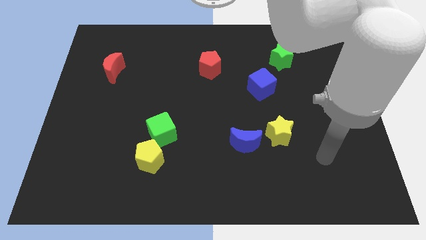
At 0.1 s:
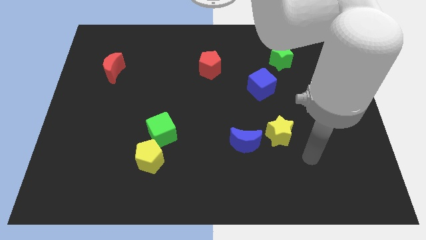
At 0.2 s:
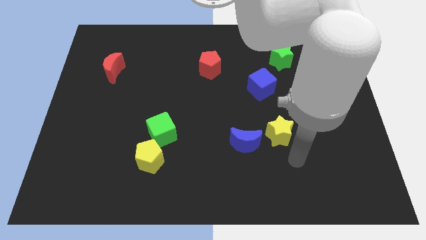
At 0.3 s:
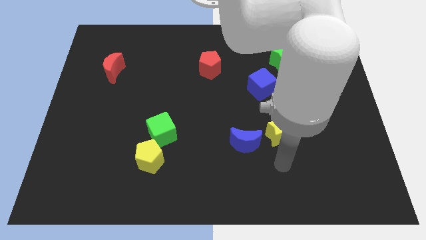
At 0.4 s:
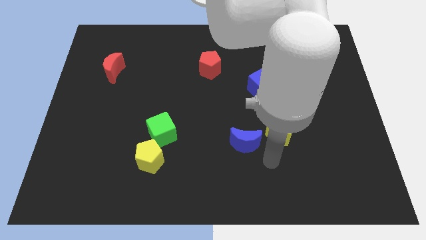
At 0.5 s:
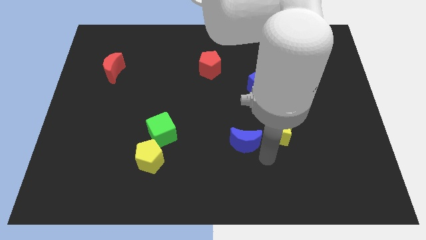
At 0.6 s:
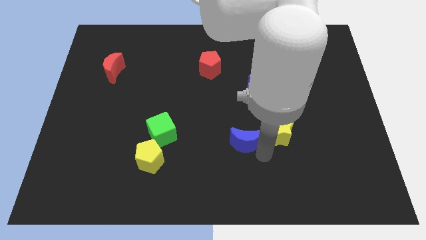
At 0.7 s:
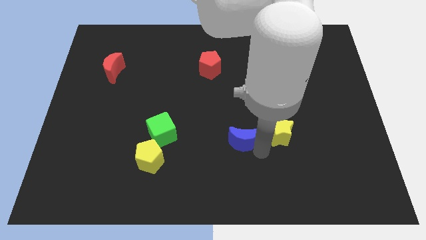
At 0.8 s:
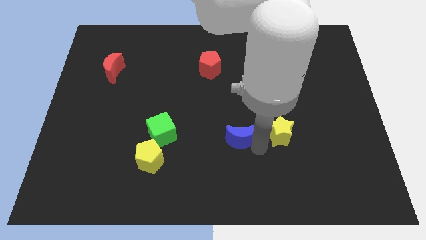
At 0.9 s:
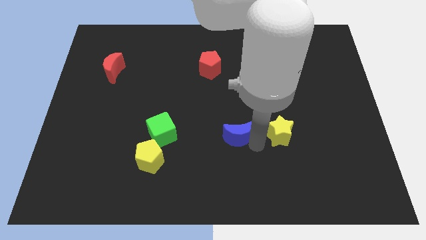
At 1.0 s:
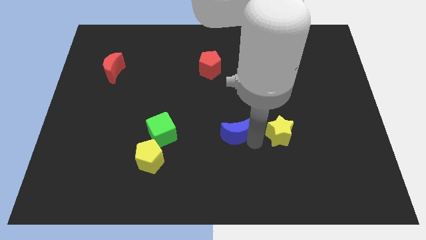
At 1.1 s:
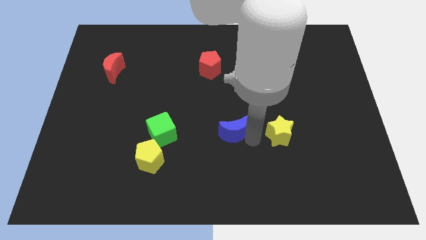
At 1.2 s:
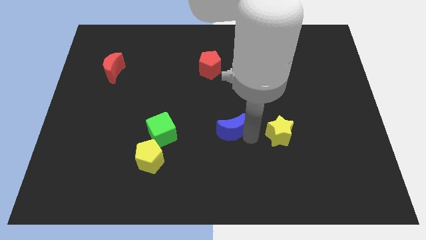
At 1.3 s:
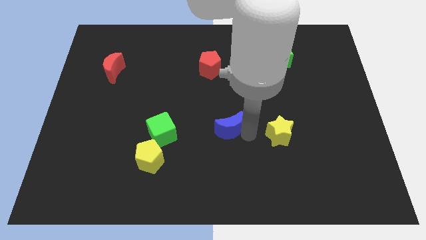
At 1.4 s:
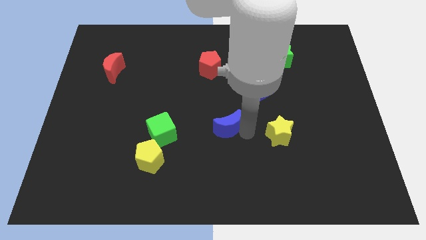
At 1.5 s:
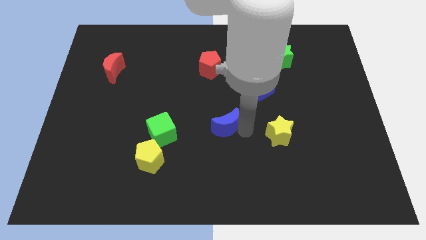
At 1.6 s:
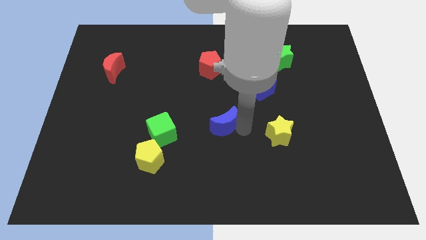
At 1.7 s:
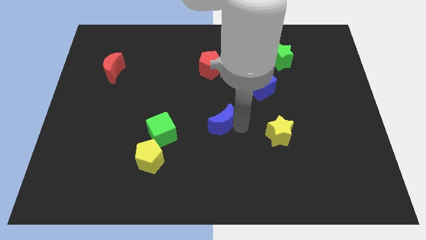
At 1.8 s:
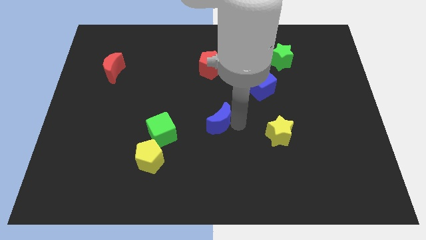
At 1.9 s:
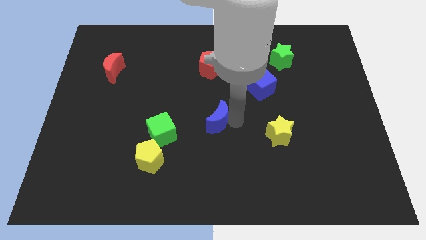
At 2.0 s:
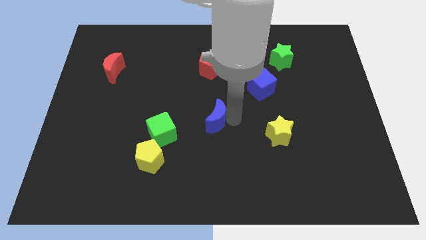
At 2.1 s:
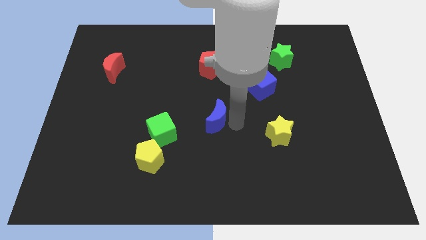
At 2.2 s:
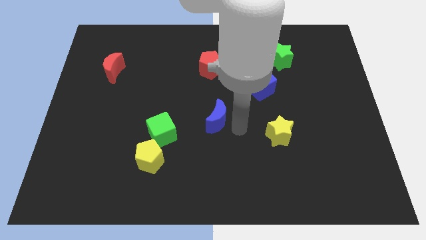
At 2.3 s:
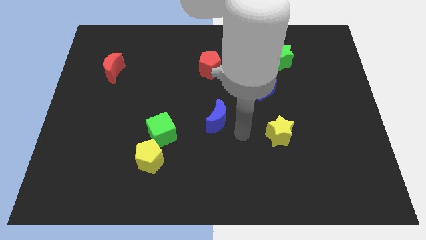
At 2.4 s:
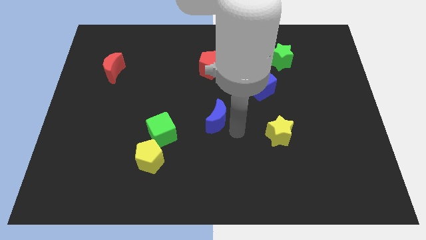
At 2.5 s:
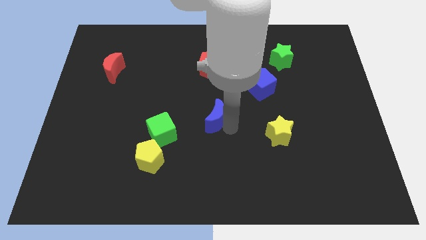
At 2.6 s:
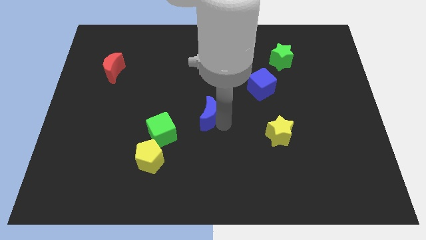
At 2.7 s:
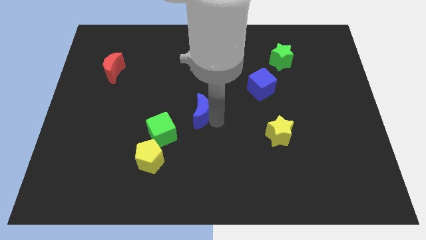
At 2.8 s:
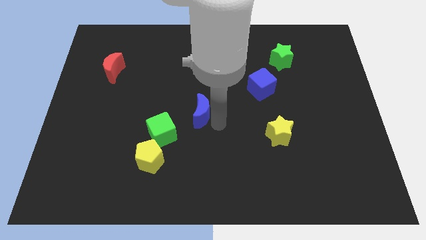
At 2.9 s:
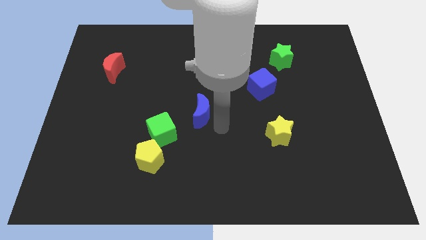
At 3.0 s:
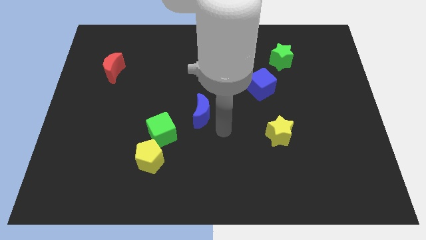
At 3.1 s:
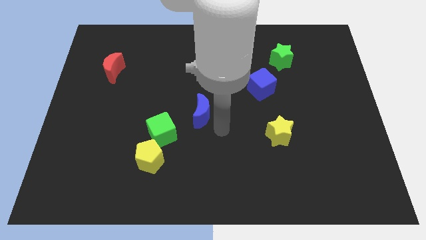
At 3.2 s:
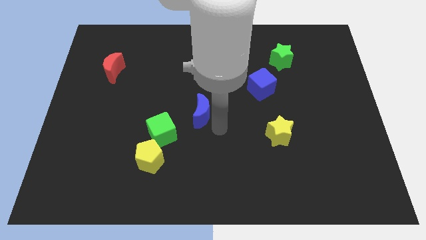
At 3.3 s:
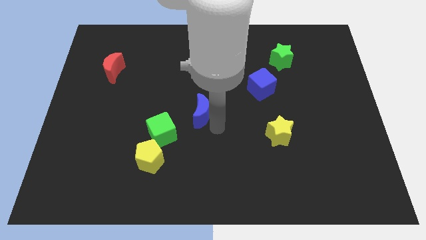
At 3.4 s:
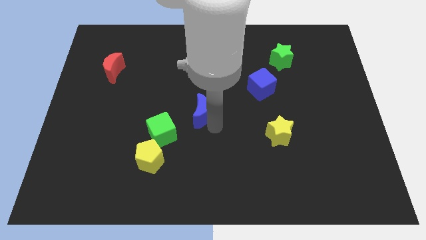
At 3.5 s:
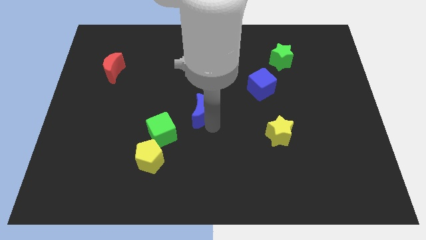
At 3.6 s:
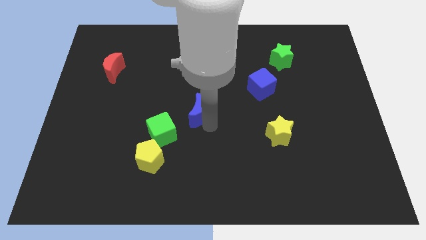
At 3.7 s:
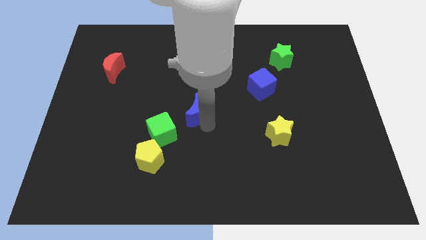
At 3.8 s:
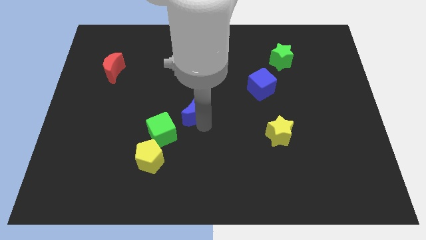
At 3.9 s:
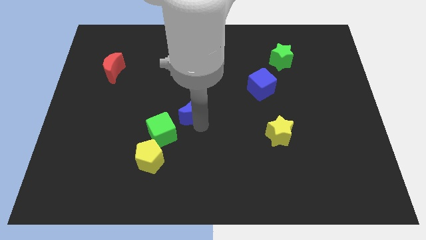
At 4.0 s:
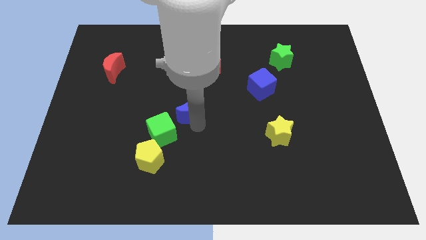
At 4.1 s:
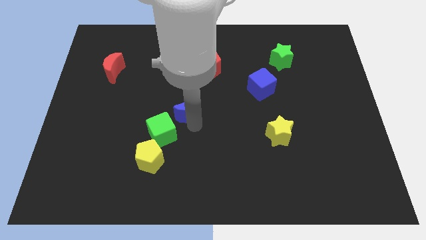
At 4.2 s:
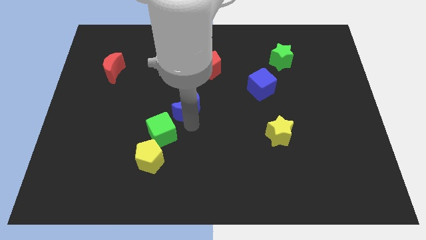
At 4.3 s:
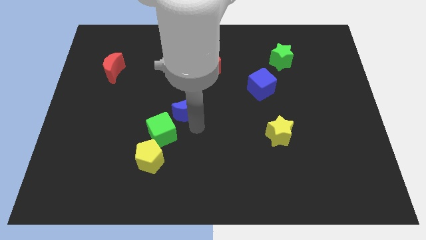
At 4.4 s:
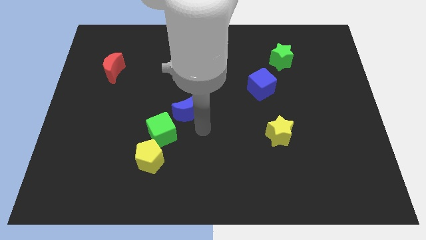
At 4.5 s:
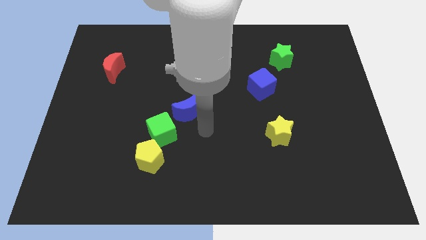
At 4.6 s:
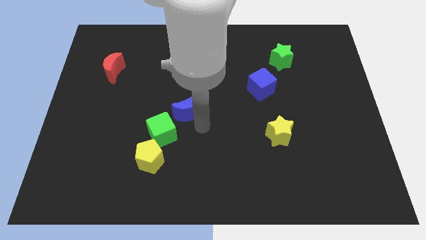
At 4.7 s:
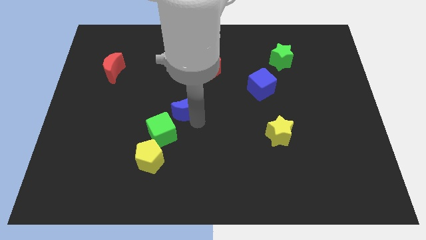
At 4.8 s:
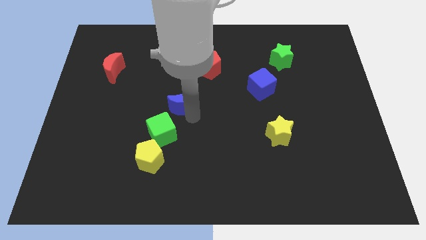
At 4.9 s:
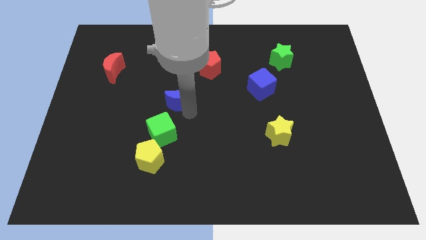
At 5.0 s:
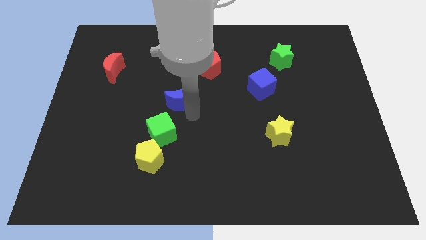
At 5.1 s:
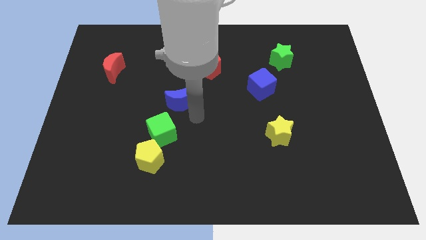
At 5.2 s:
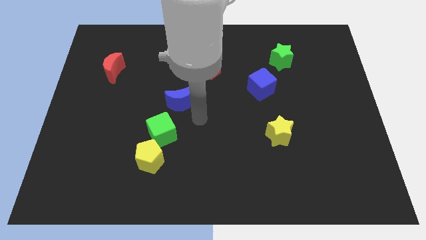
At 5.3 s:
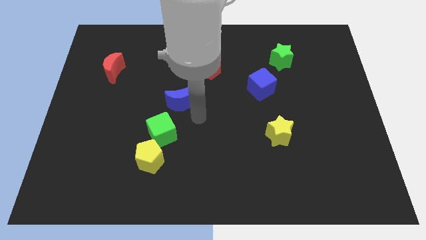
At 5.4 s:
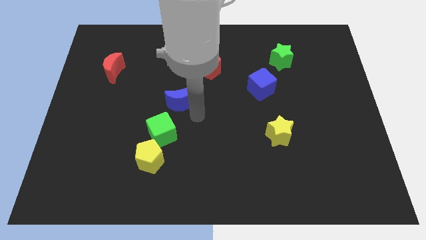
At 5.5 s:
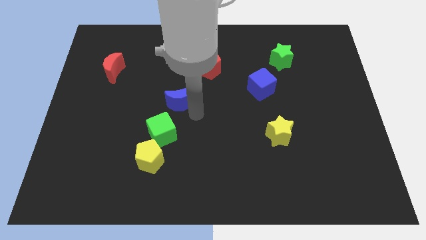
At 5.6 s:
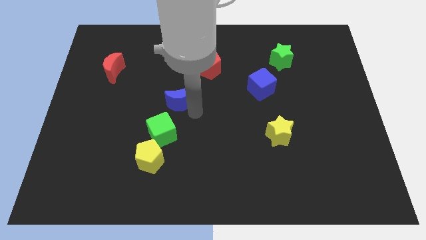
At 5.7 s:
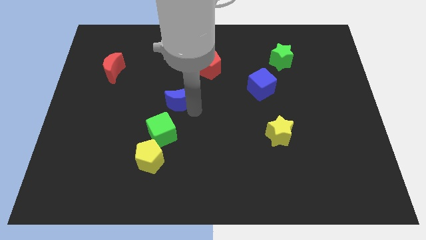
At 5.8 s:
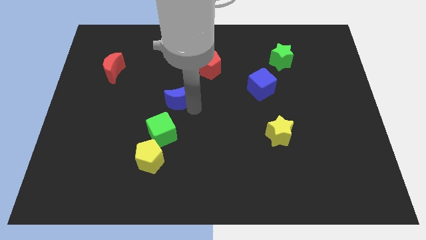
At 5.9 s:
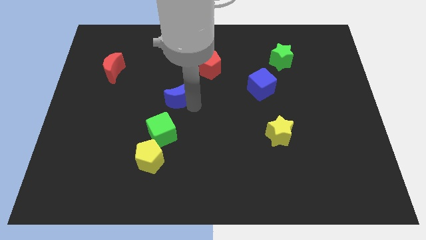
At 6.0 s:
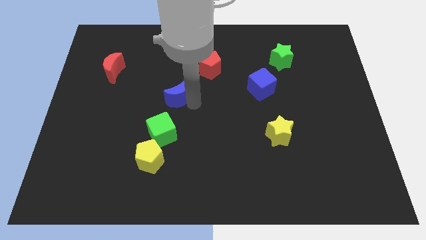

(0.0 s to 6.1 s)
slide the blue moon upwards and to the left

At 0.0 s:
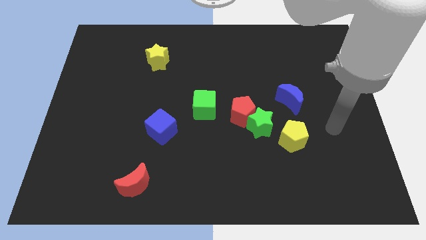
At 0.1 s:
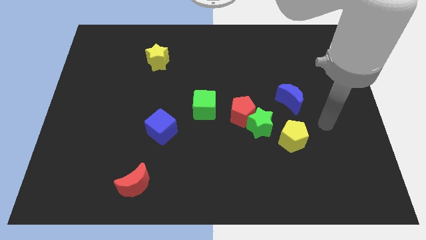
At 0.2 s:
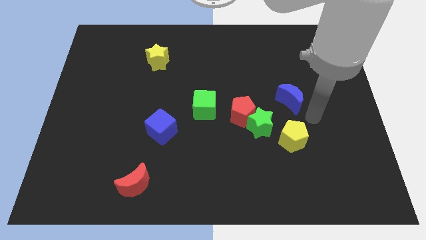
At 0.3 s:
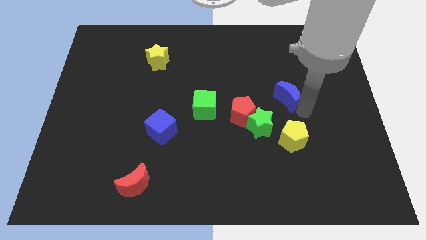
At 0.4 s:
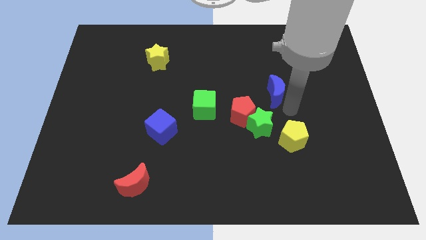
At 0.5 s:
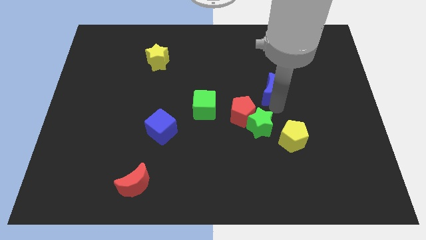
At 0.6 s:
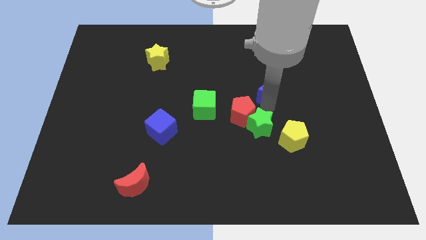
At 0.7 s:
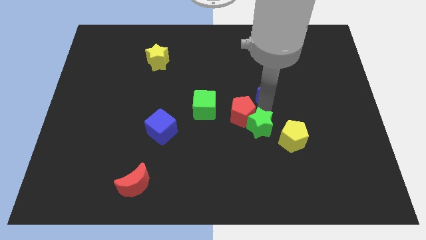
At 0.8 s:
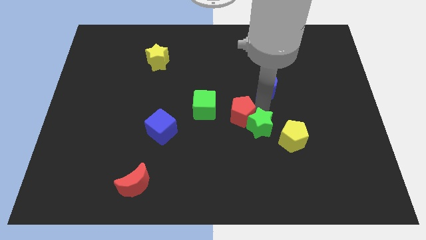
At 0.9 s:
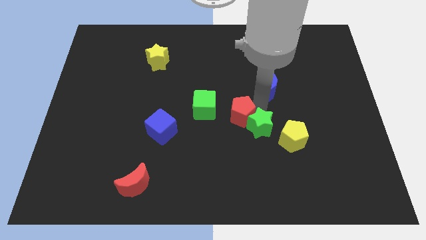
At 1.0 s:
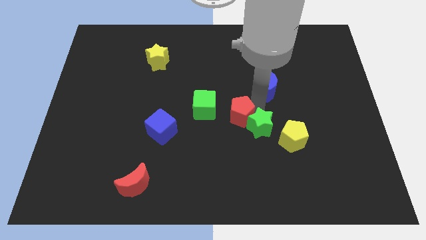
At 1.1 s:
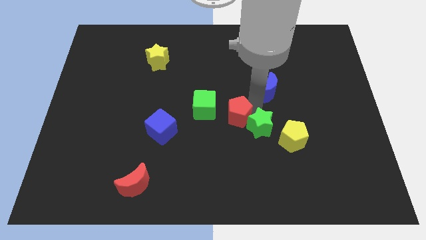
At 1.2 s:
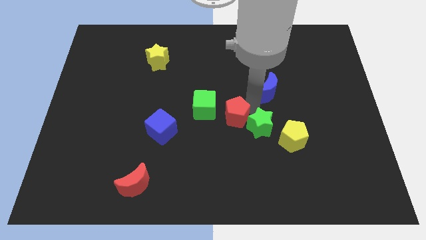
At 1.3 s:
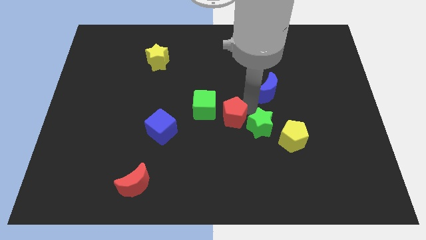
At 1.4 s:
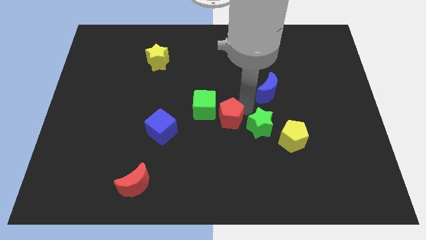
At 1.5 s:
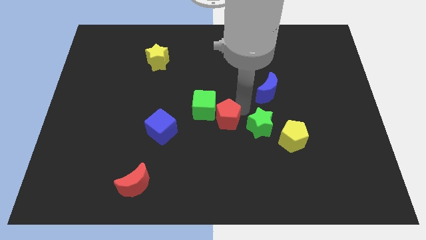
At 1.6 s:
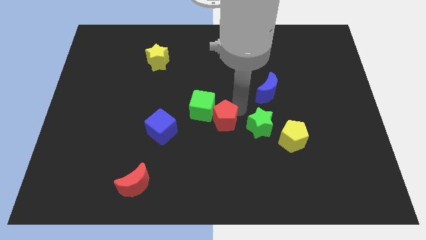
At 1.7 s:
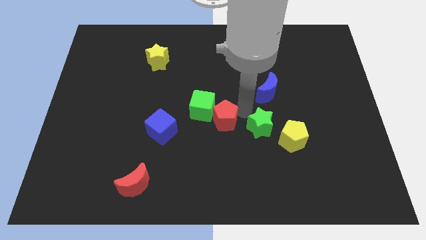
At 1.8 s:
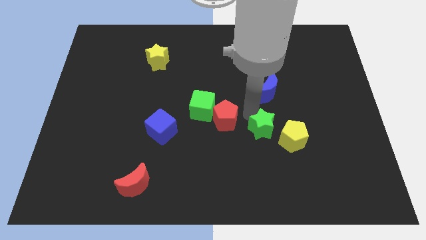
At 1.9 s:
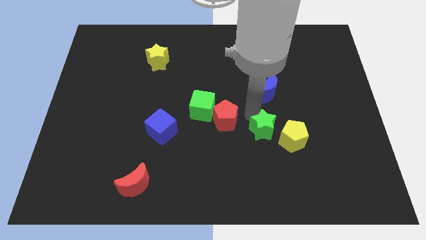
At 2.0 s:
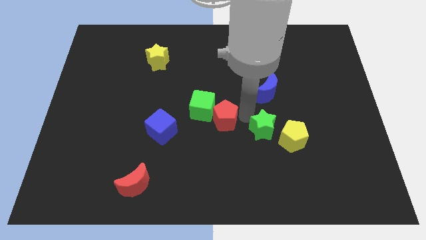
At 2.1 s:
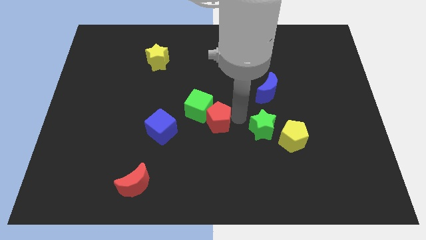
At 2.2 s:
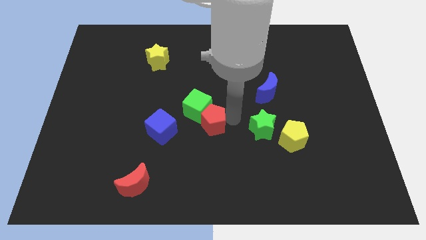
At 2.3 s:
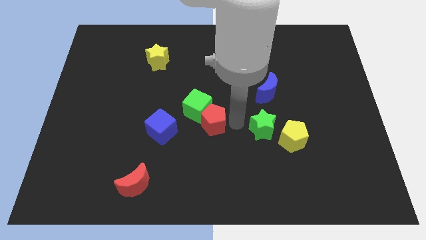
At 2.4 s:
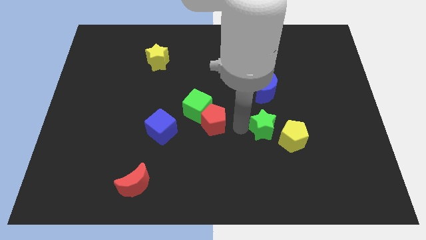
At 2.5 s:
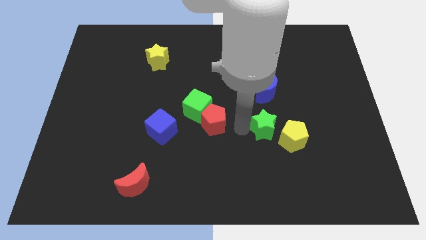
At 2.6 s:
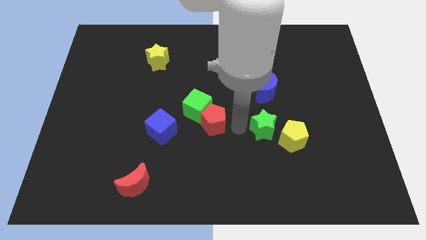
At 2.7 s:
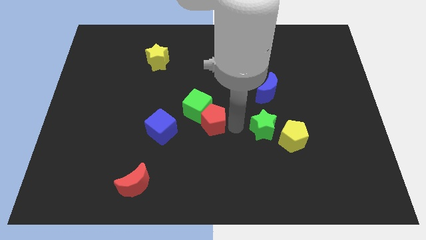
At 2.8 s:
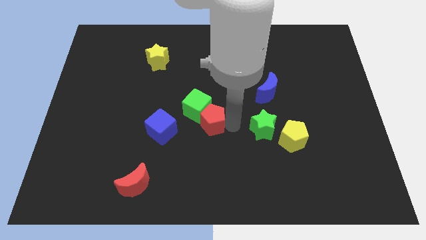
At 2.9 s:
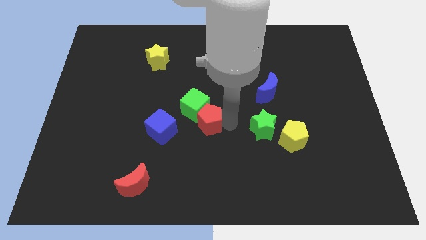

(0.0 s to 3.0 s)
push the red pentagon left slightly
